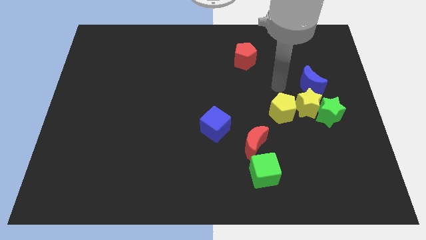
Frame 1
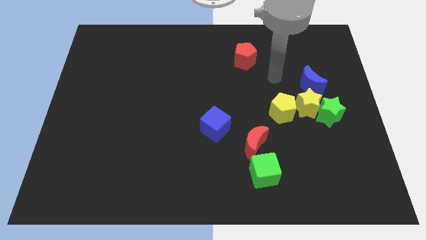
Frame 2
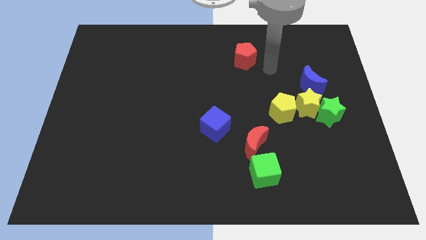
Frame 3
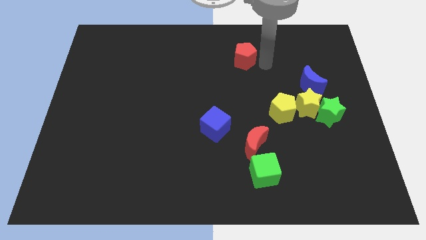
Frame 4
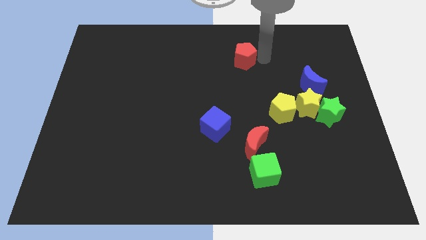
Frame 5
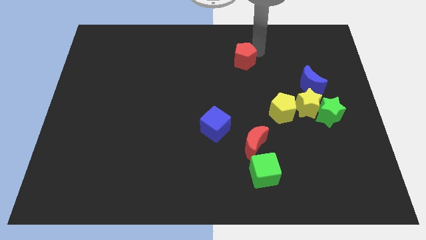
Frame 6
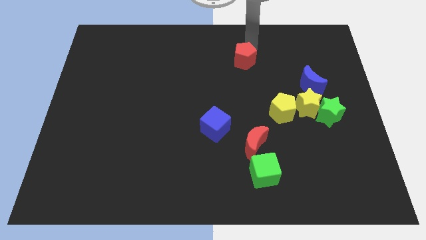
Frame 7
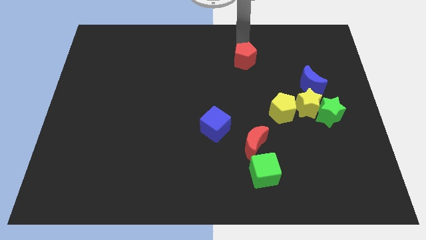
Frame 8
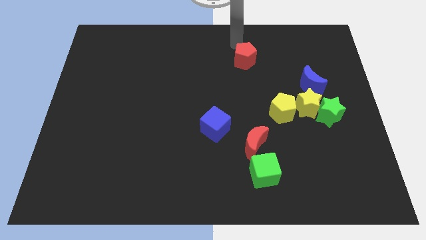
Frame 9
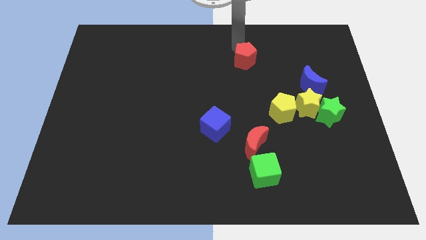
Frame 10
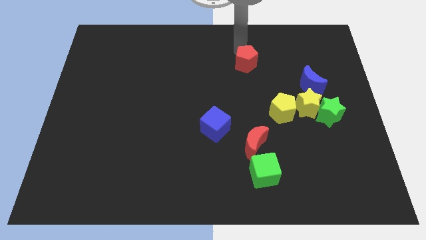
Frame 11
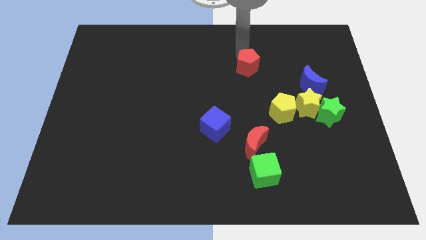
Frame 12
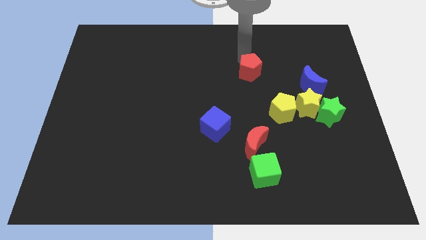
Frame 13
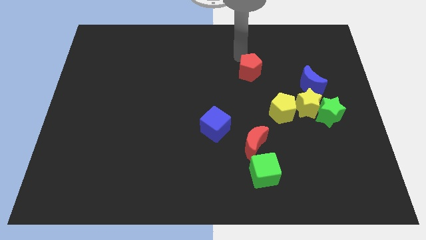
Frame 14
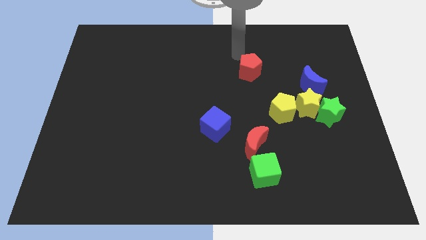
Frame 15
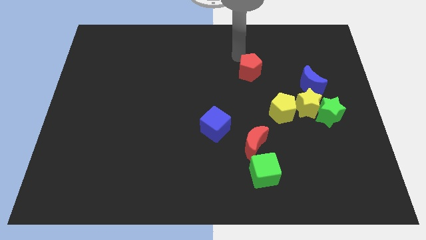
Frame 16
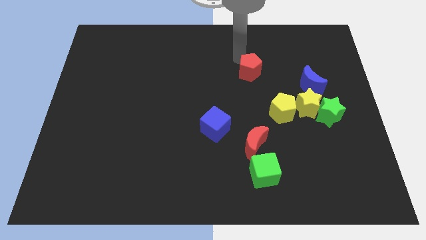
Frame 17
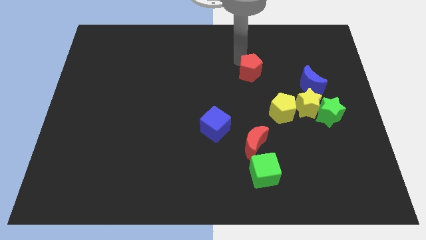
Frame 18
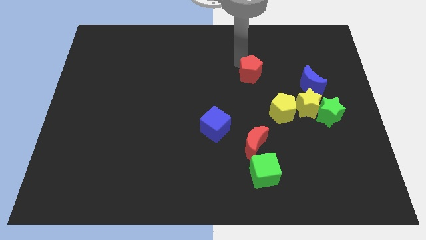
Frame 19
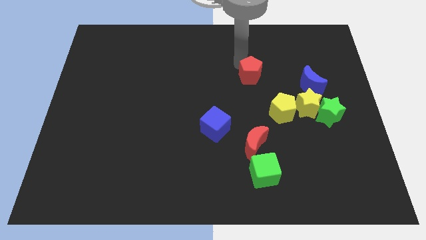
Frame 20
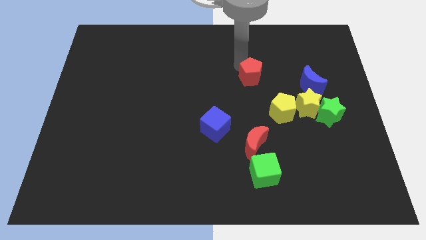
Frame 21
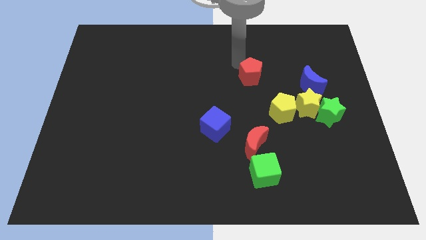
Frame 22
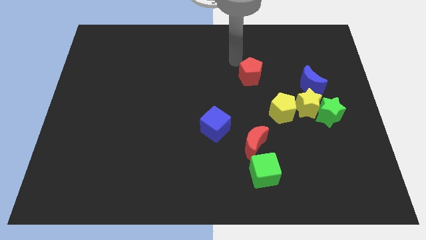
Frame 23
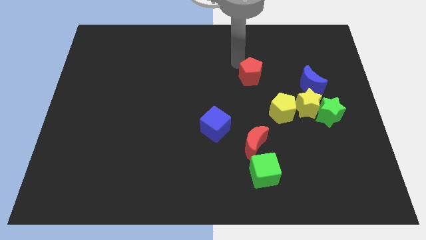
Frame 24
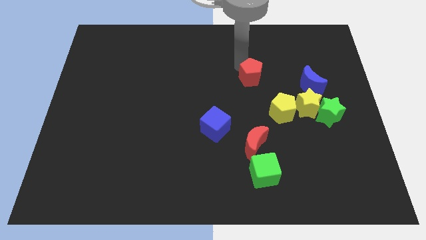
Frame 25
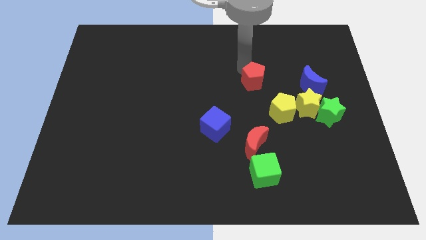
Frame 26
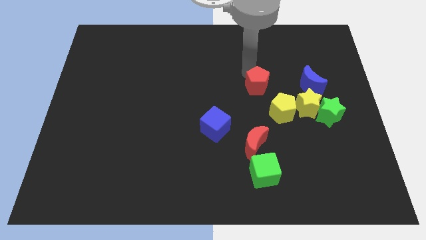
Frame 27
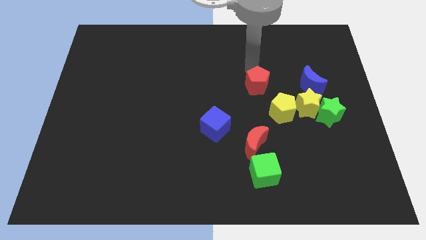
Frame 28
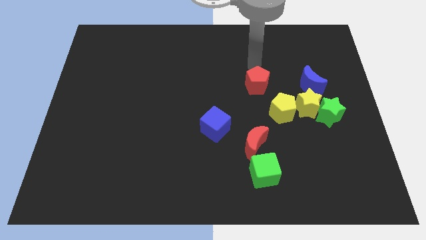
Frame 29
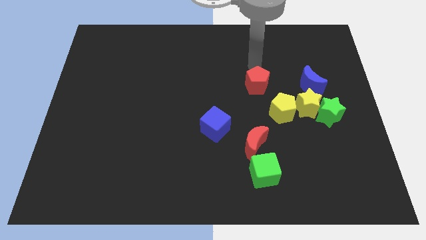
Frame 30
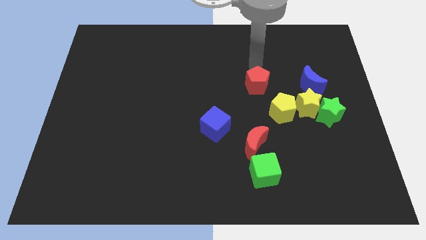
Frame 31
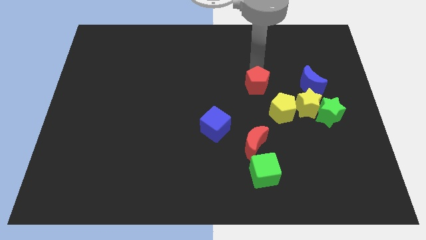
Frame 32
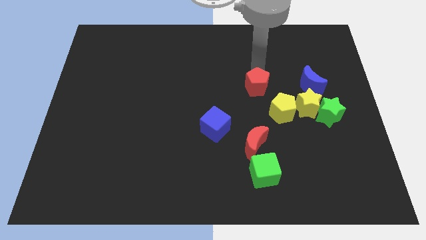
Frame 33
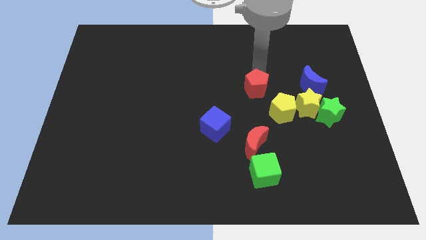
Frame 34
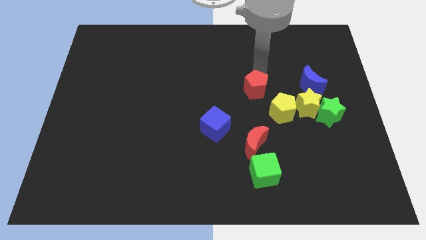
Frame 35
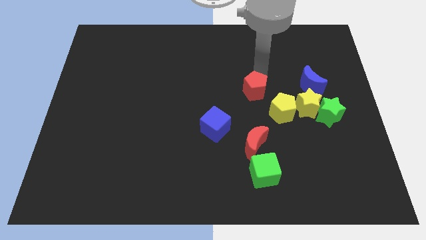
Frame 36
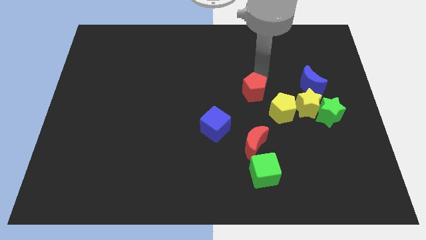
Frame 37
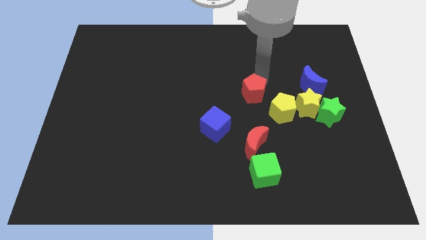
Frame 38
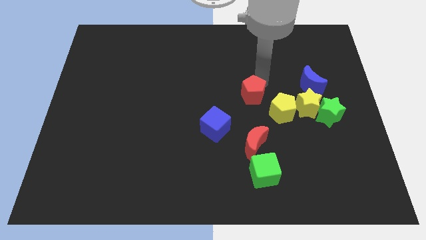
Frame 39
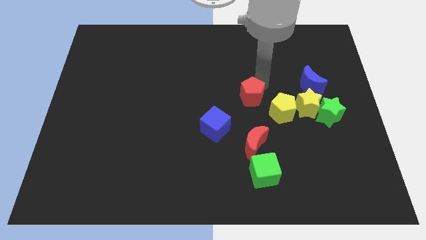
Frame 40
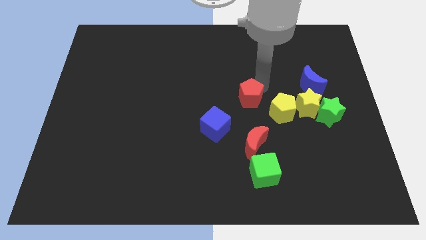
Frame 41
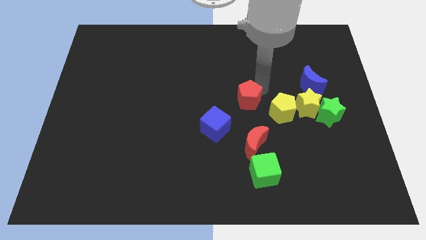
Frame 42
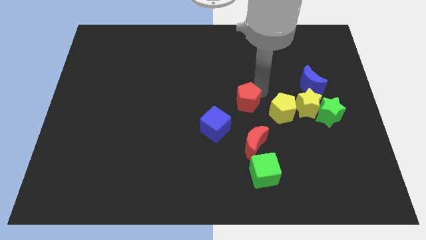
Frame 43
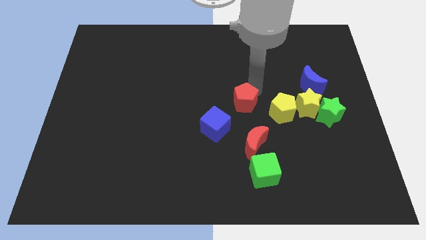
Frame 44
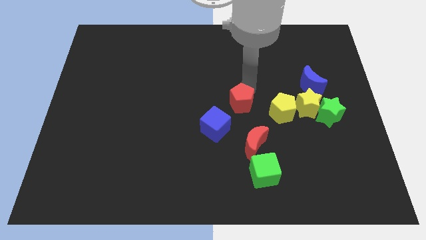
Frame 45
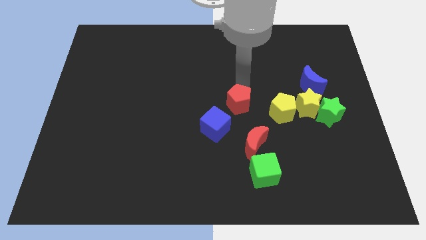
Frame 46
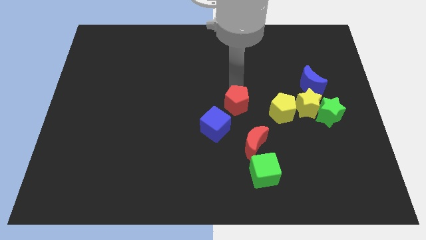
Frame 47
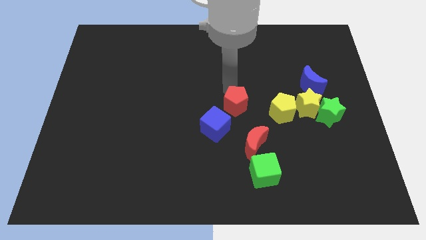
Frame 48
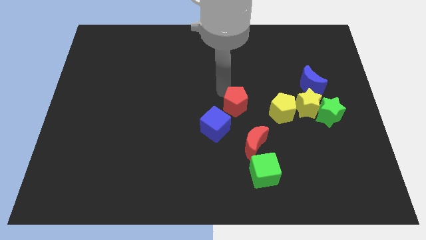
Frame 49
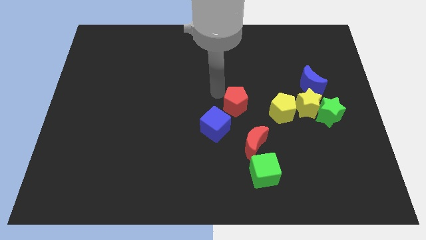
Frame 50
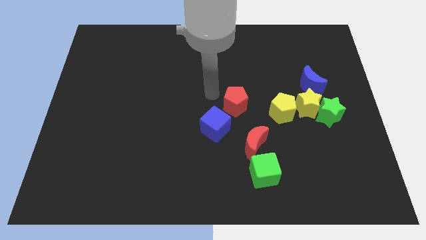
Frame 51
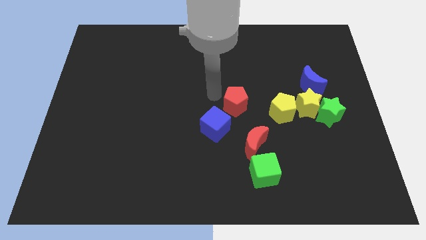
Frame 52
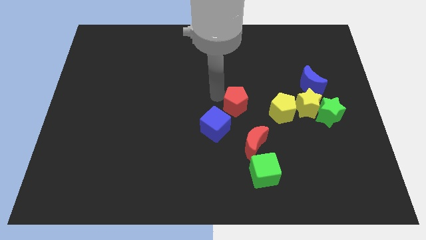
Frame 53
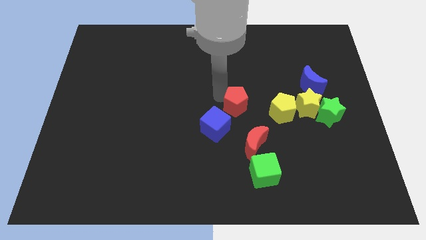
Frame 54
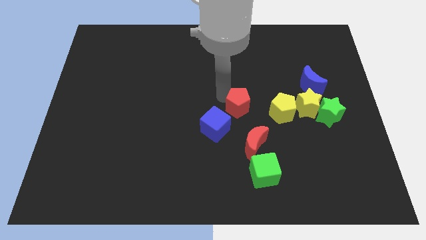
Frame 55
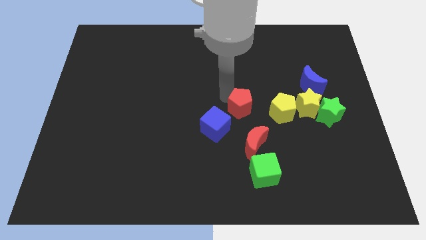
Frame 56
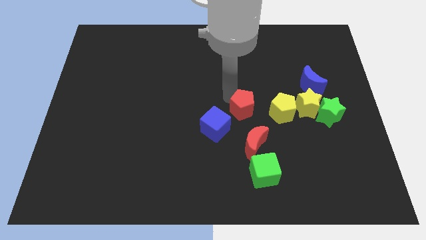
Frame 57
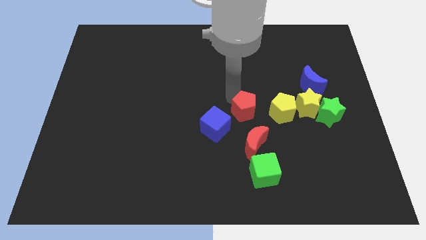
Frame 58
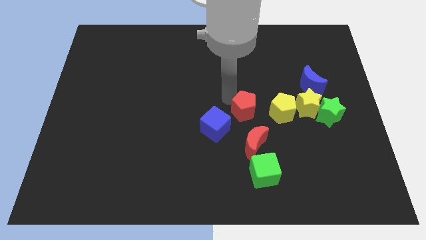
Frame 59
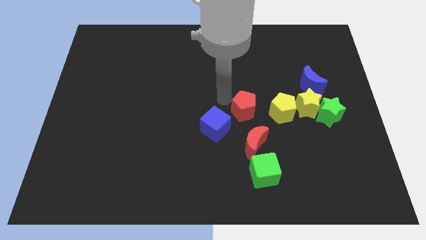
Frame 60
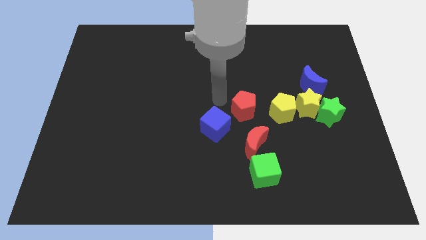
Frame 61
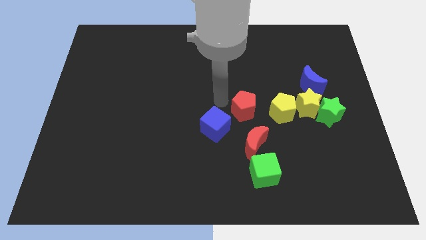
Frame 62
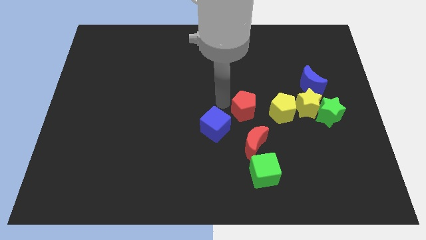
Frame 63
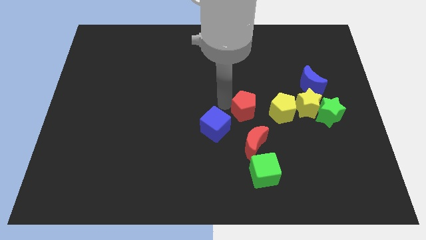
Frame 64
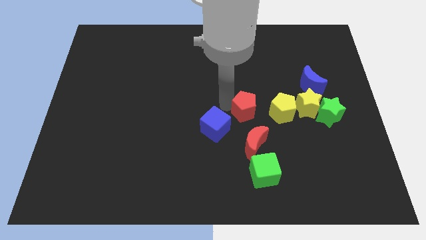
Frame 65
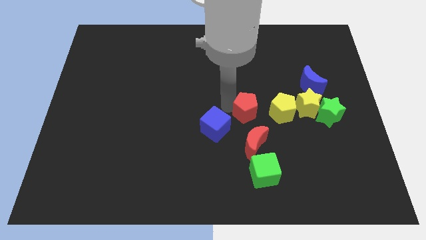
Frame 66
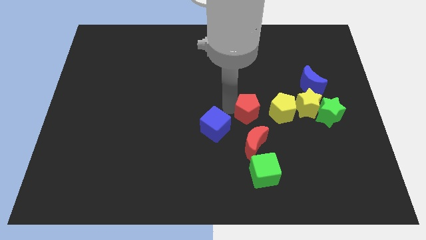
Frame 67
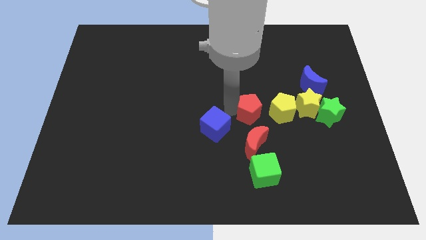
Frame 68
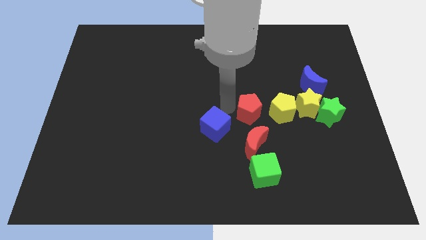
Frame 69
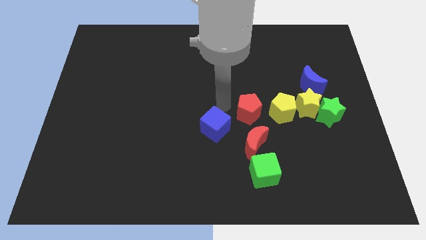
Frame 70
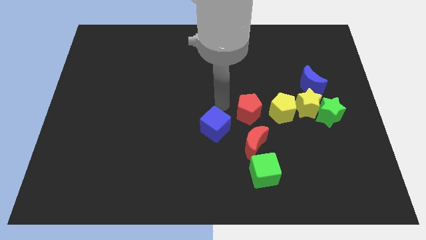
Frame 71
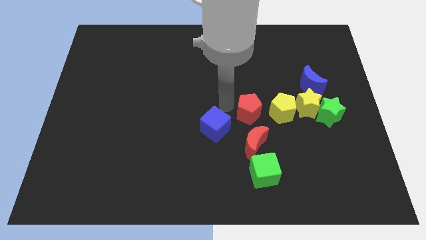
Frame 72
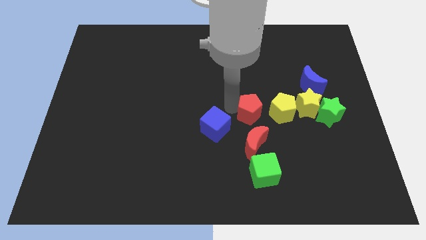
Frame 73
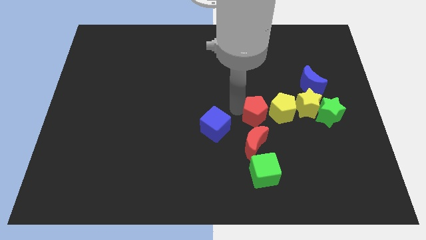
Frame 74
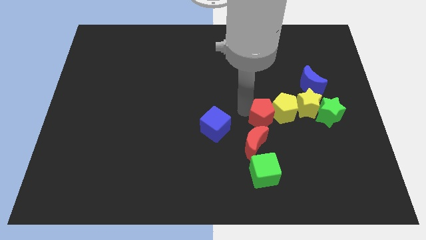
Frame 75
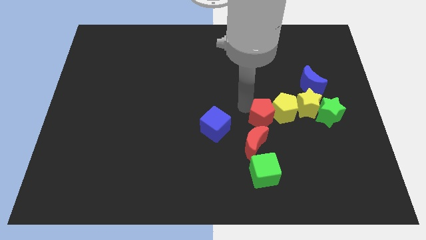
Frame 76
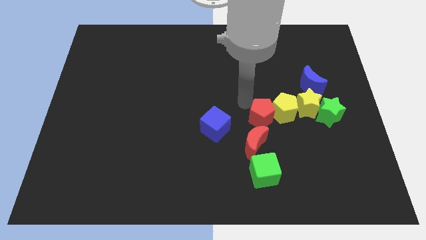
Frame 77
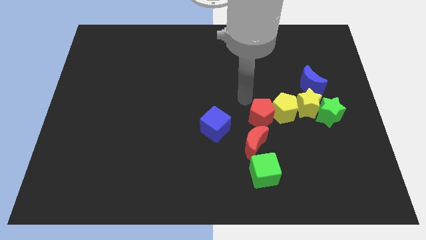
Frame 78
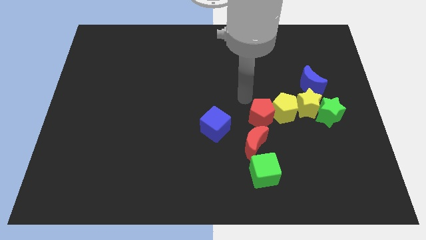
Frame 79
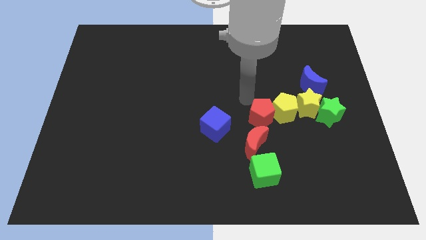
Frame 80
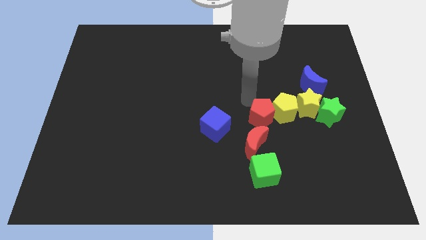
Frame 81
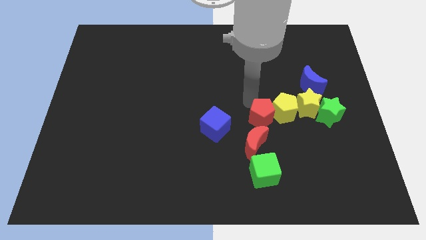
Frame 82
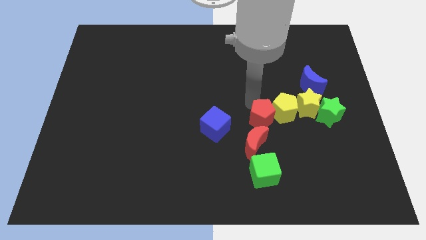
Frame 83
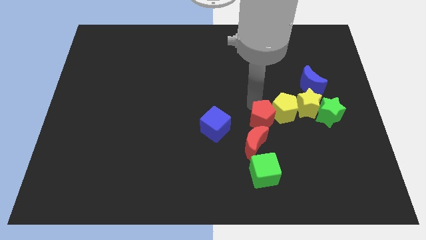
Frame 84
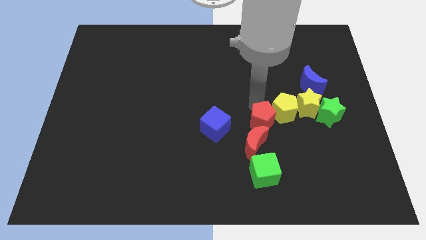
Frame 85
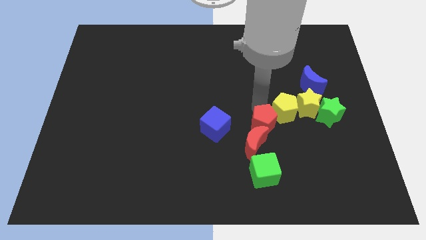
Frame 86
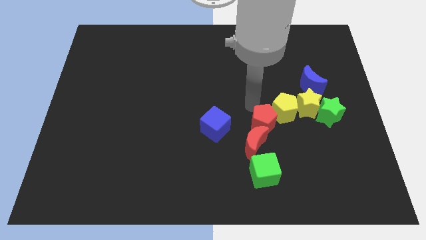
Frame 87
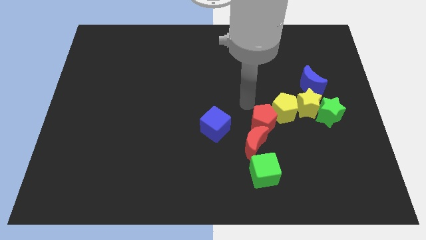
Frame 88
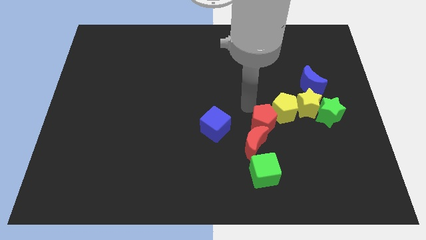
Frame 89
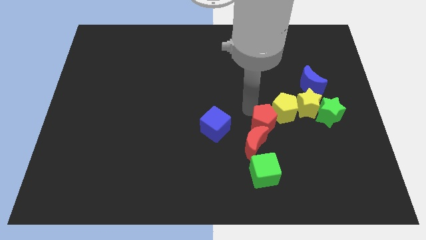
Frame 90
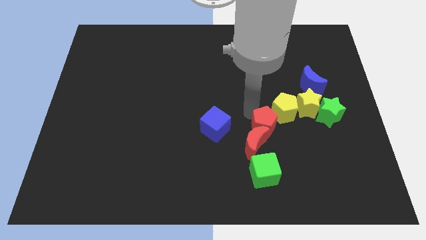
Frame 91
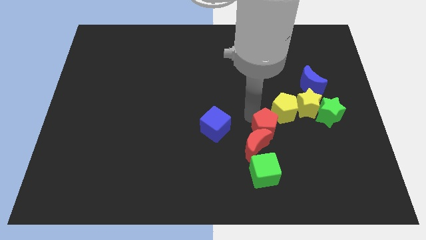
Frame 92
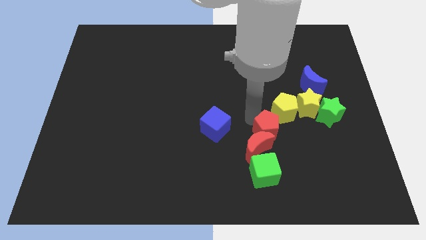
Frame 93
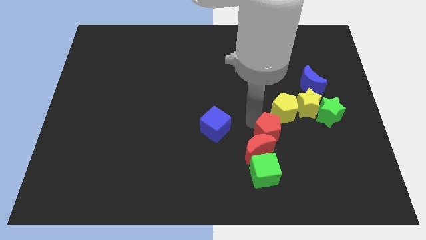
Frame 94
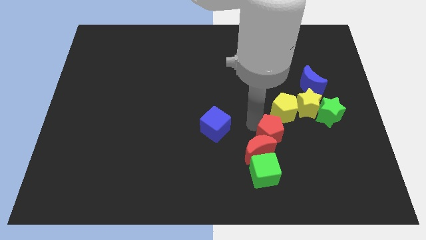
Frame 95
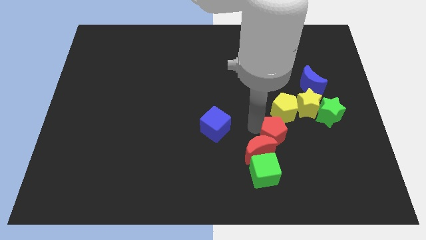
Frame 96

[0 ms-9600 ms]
push the red pentagon diagonally up and to the right of the green cube
